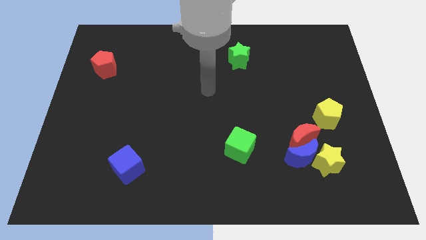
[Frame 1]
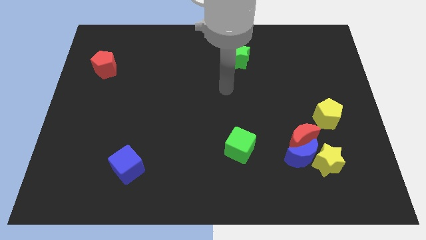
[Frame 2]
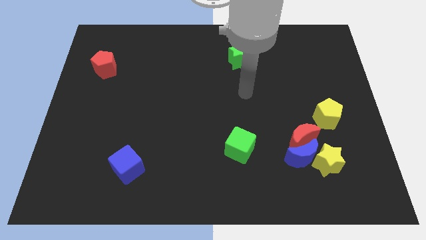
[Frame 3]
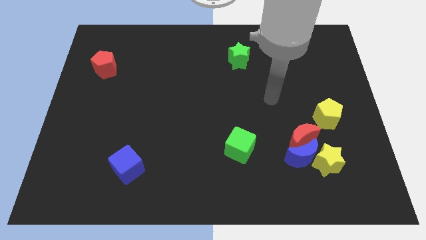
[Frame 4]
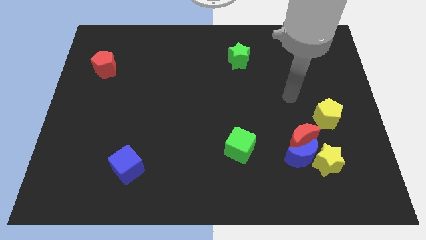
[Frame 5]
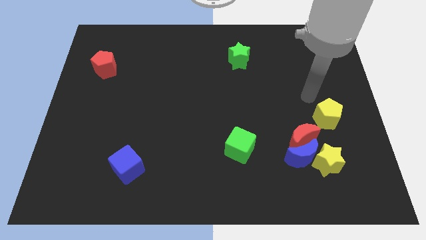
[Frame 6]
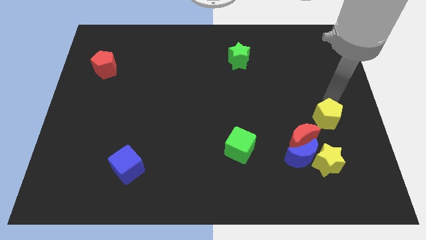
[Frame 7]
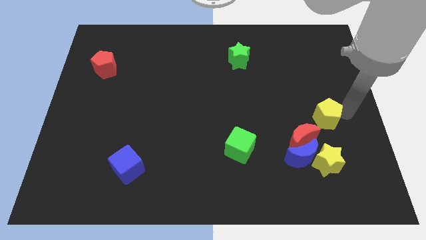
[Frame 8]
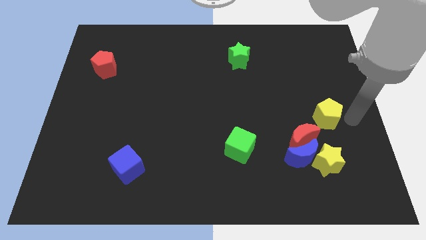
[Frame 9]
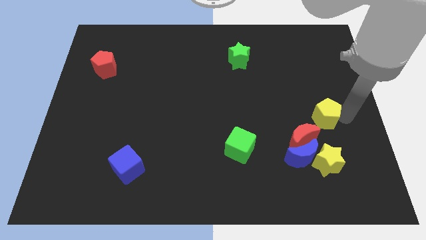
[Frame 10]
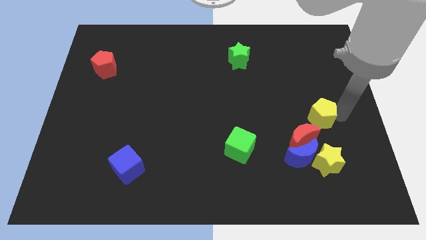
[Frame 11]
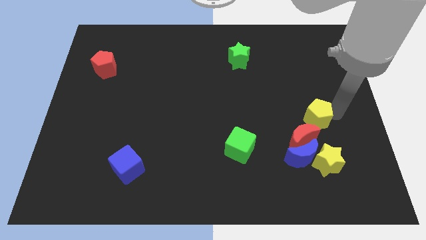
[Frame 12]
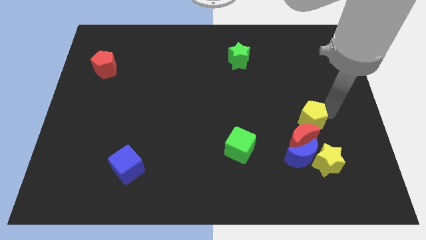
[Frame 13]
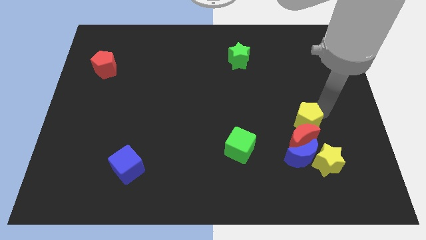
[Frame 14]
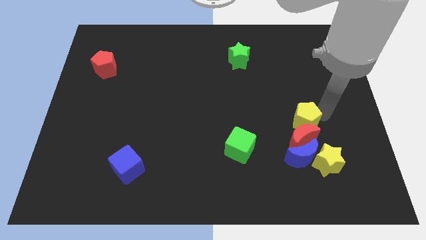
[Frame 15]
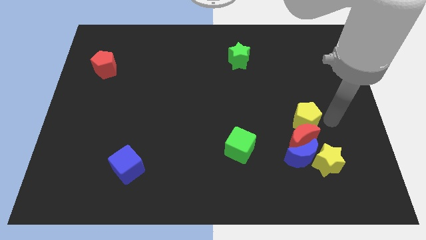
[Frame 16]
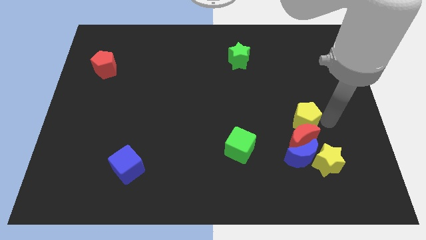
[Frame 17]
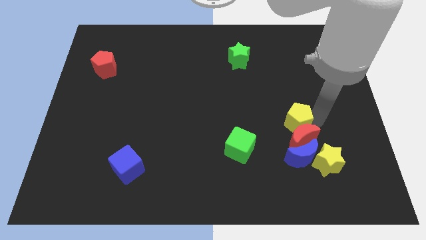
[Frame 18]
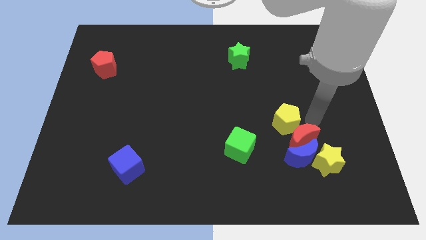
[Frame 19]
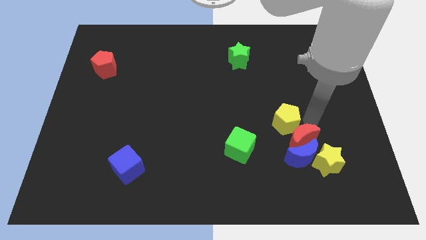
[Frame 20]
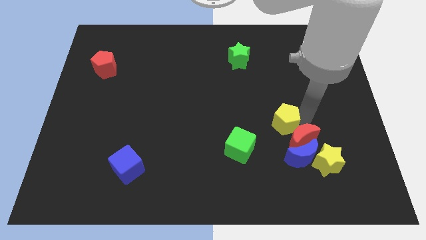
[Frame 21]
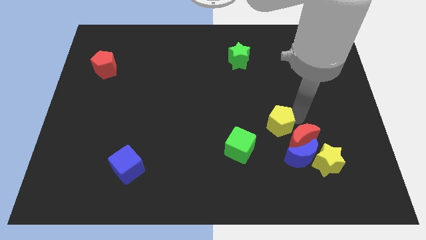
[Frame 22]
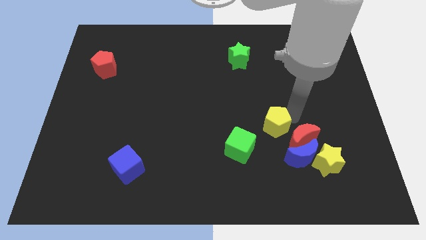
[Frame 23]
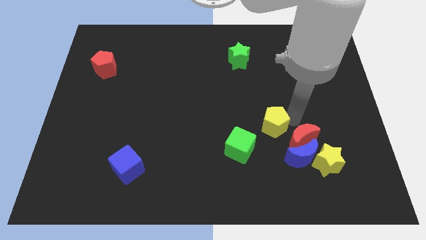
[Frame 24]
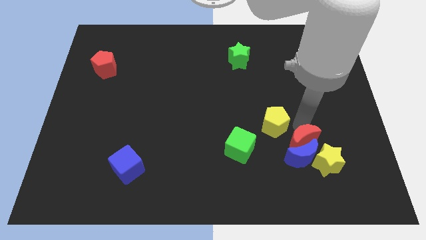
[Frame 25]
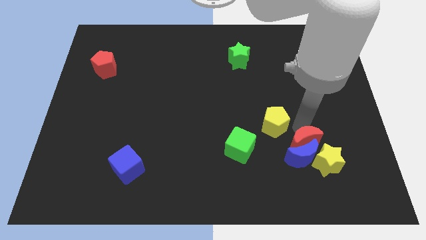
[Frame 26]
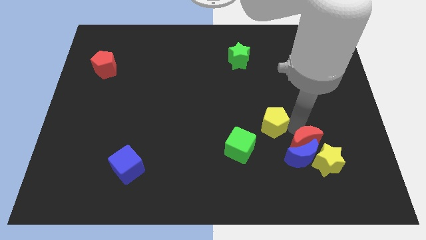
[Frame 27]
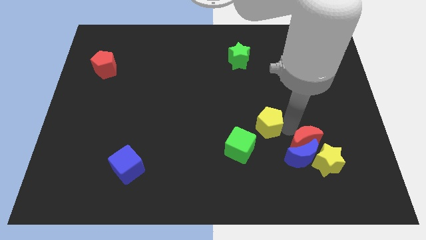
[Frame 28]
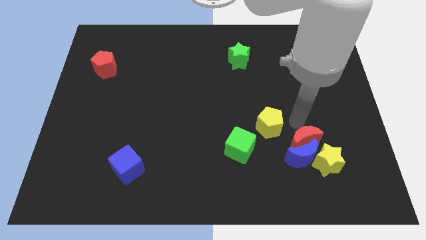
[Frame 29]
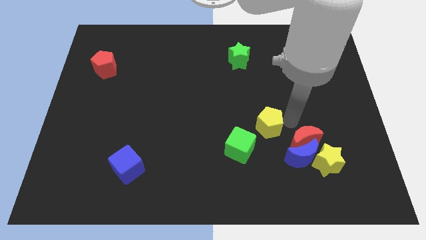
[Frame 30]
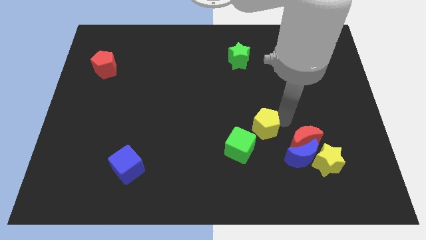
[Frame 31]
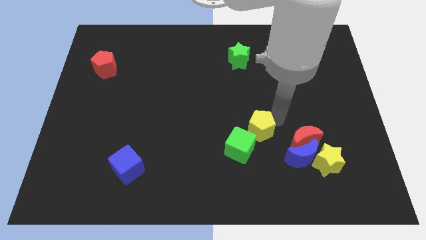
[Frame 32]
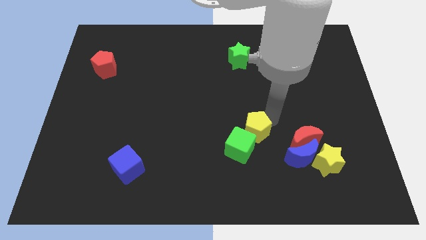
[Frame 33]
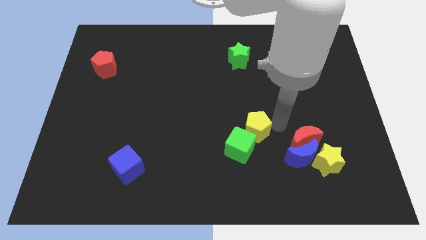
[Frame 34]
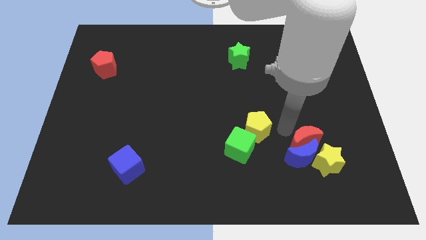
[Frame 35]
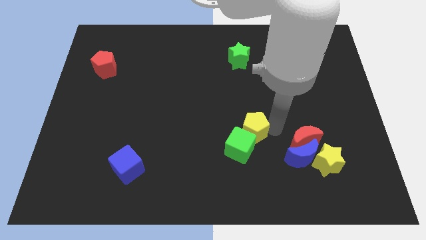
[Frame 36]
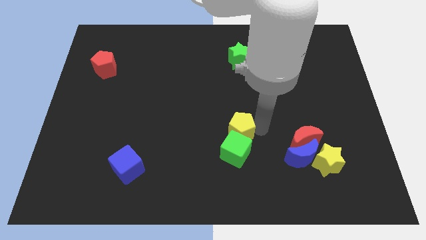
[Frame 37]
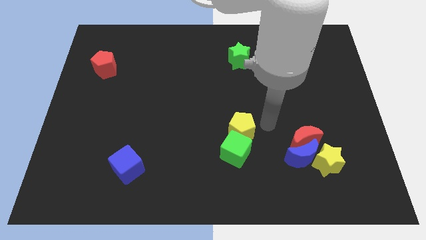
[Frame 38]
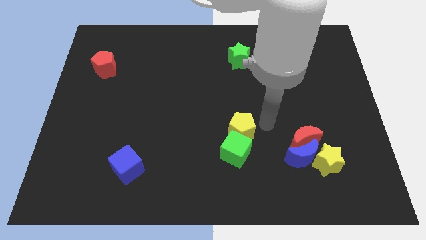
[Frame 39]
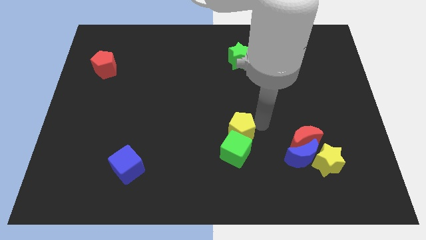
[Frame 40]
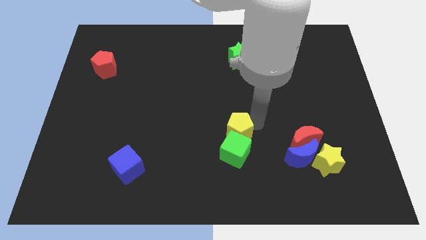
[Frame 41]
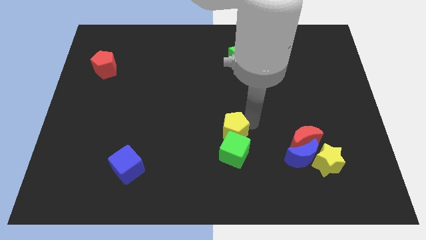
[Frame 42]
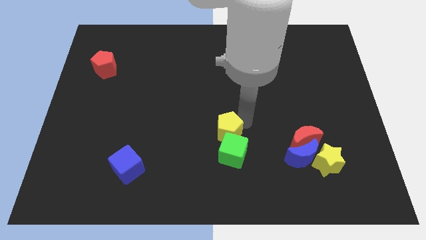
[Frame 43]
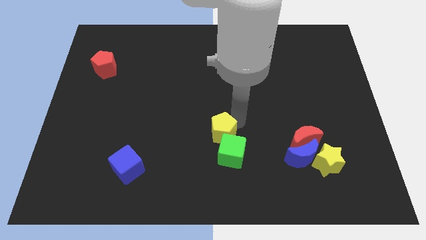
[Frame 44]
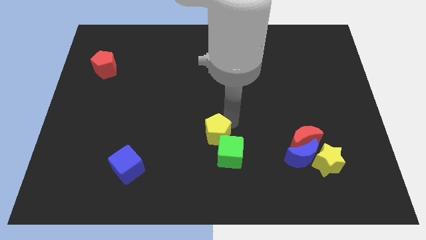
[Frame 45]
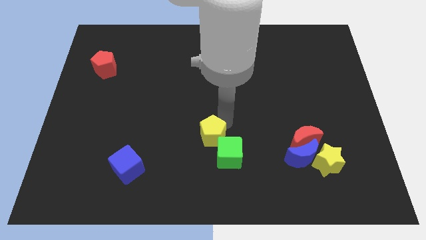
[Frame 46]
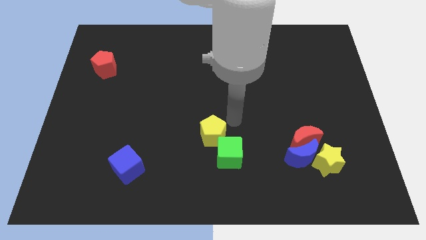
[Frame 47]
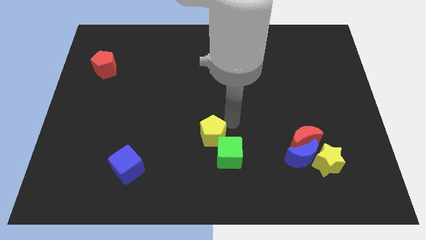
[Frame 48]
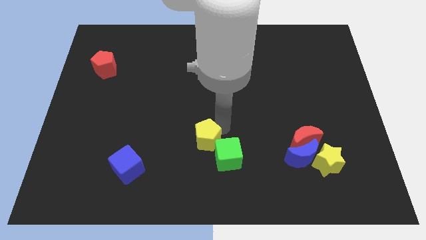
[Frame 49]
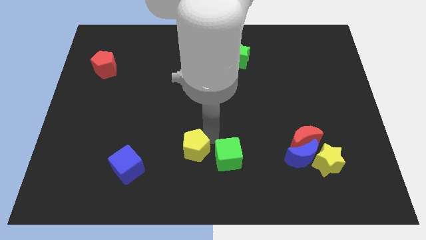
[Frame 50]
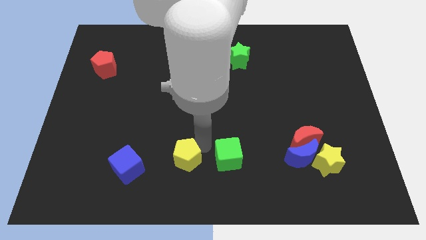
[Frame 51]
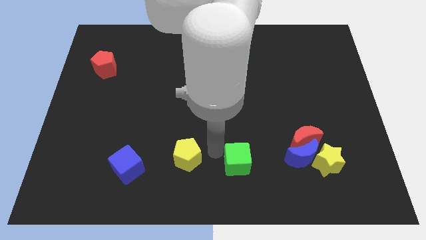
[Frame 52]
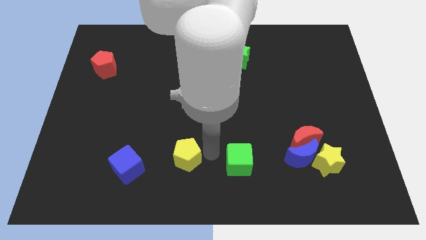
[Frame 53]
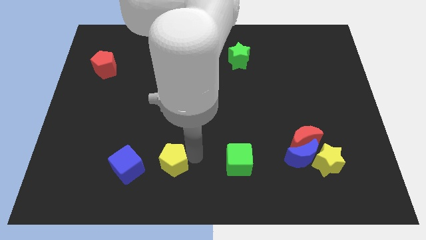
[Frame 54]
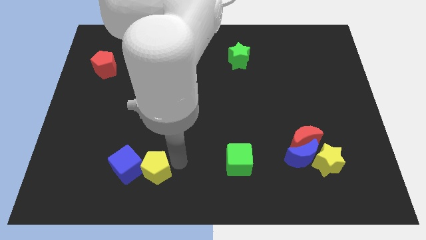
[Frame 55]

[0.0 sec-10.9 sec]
move the yellow pentagon to the blue cube

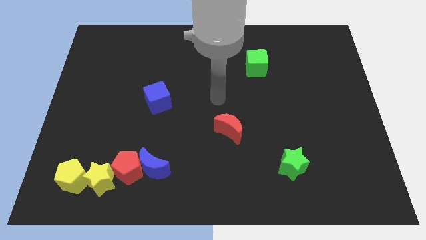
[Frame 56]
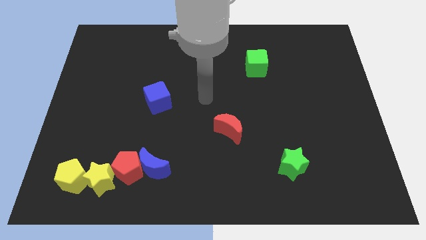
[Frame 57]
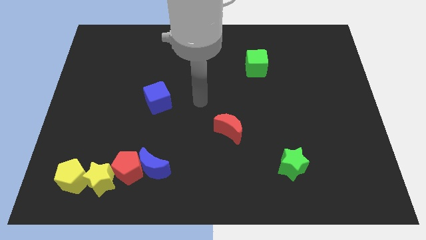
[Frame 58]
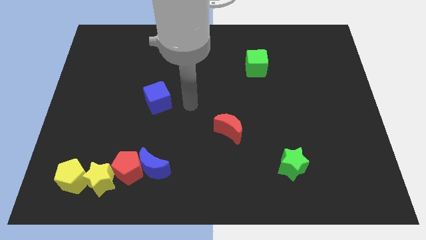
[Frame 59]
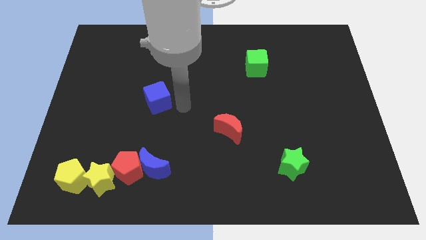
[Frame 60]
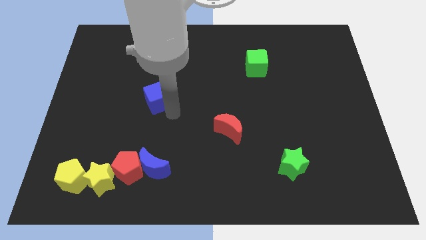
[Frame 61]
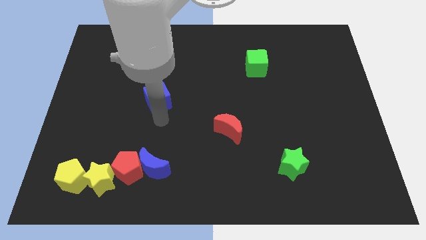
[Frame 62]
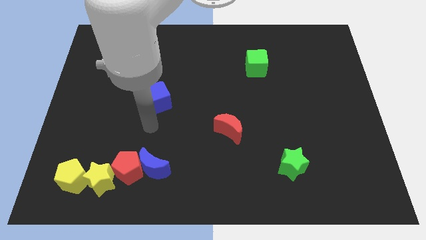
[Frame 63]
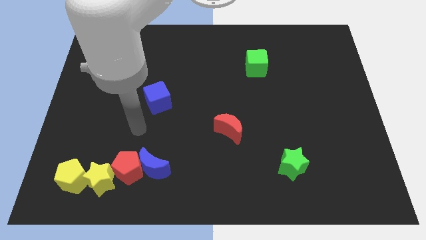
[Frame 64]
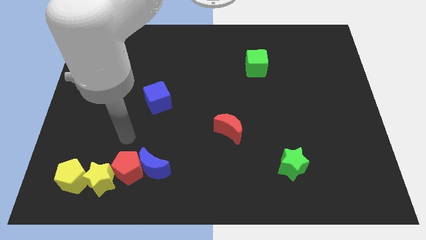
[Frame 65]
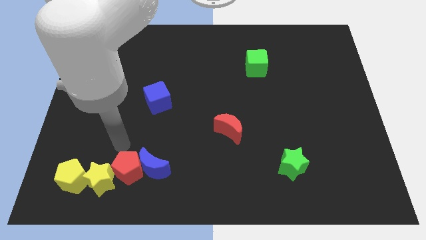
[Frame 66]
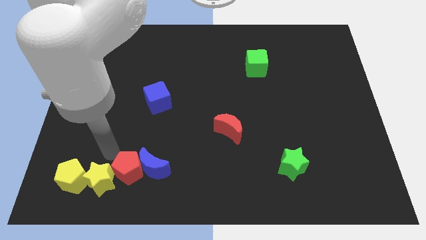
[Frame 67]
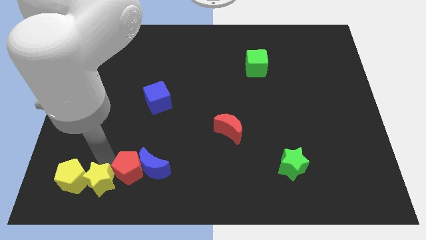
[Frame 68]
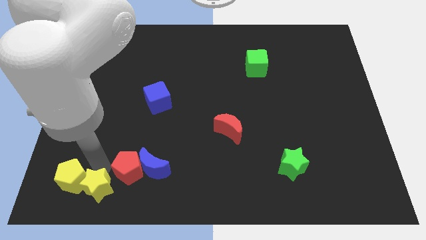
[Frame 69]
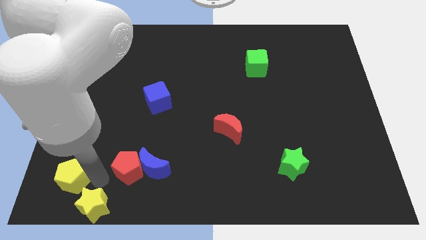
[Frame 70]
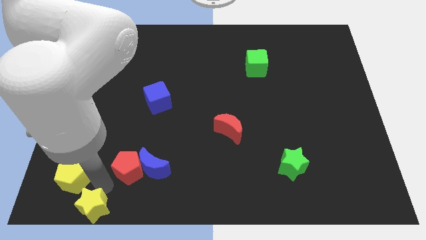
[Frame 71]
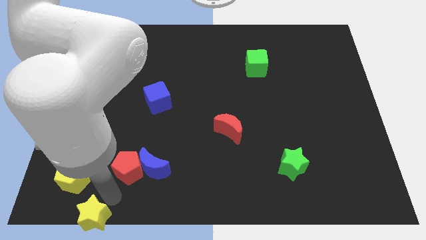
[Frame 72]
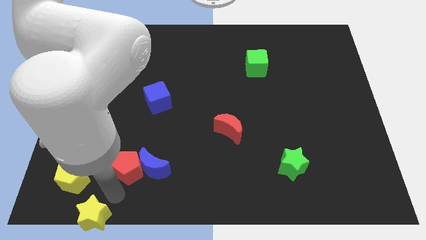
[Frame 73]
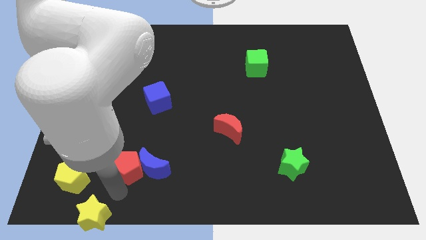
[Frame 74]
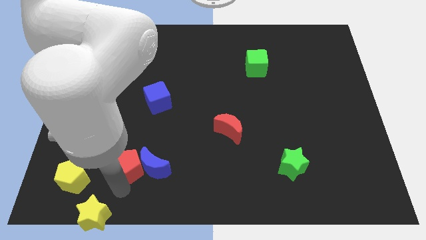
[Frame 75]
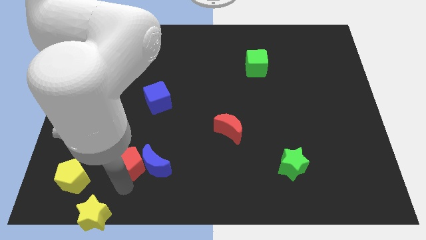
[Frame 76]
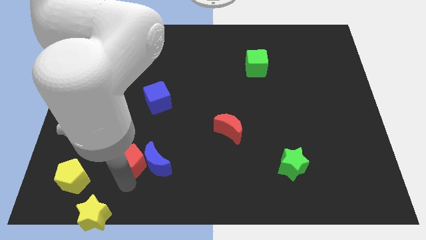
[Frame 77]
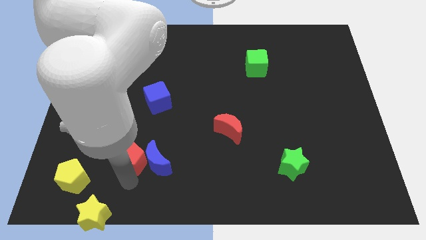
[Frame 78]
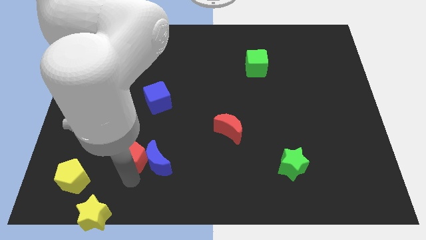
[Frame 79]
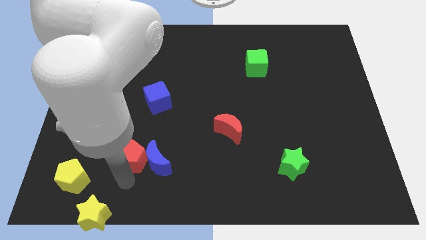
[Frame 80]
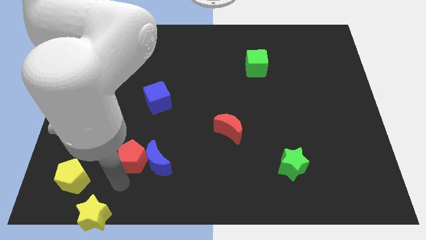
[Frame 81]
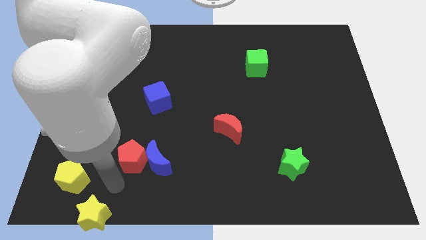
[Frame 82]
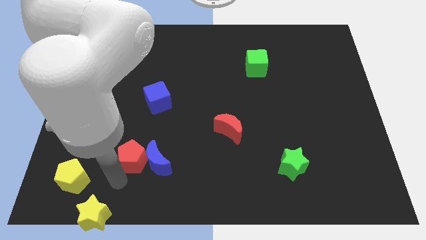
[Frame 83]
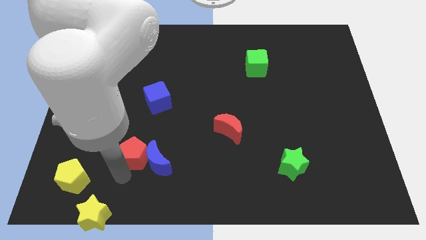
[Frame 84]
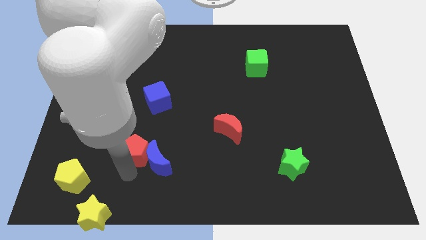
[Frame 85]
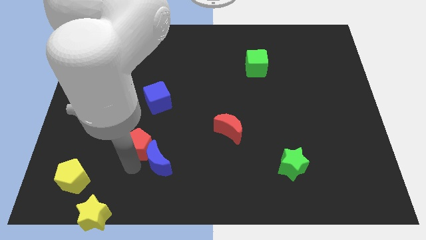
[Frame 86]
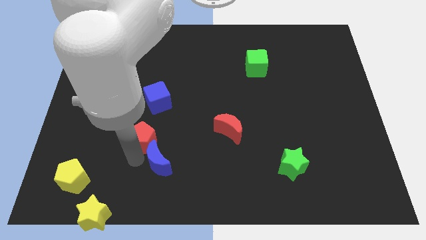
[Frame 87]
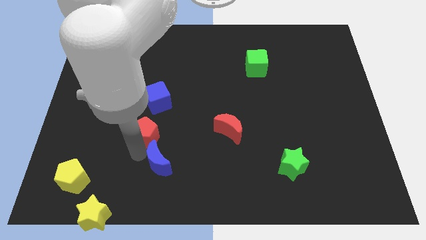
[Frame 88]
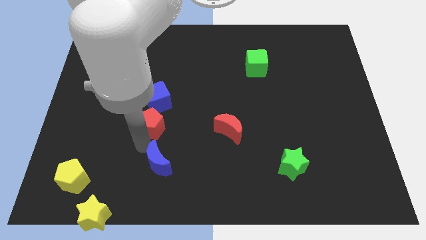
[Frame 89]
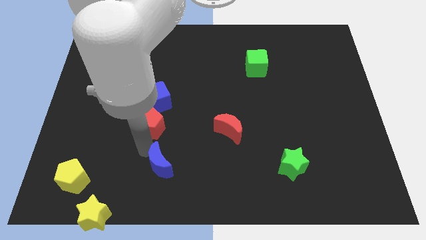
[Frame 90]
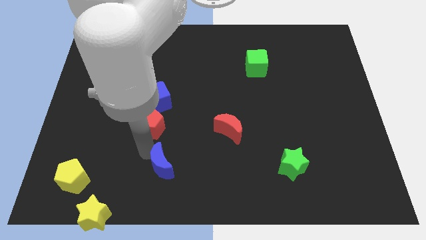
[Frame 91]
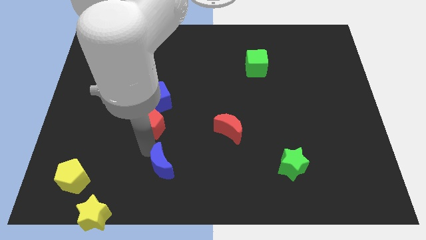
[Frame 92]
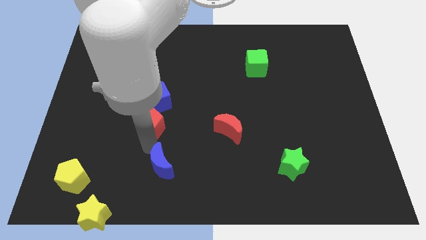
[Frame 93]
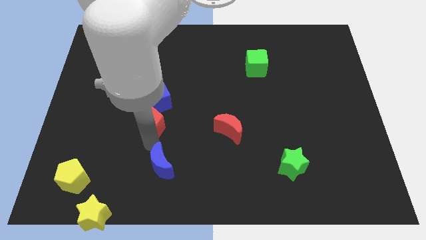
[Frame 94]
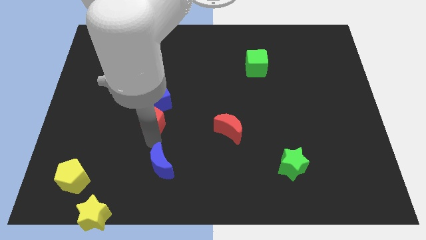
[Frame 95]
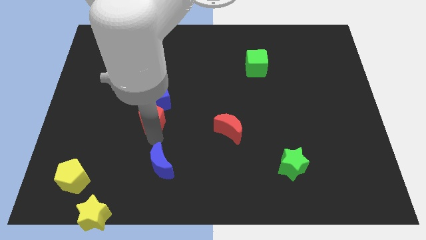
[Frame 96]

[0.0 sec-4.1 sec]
move the red pentagon next to the blue cube
